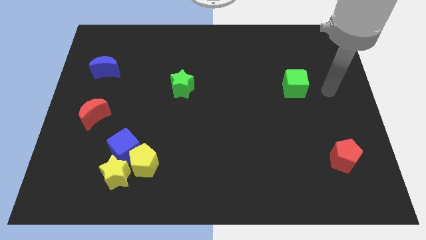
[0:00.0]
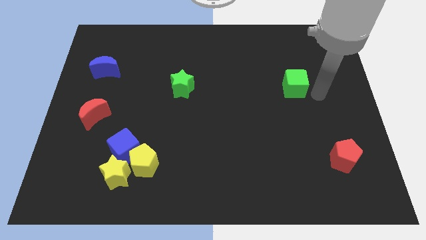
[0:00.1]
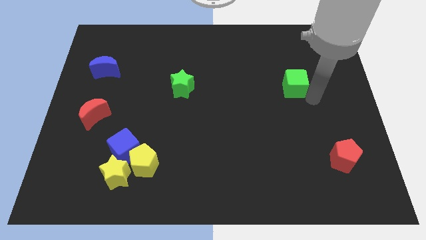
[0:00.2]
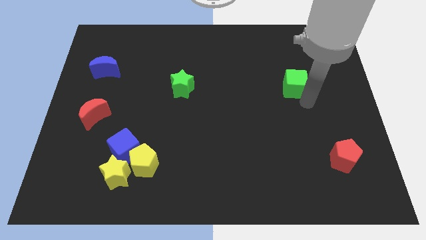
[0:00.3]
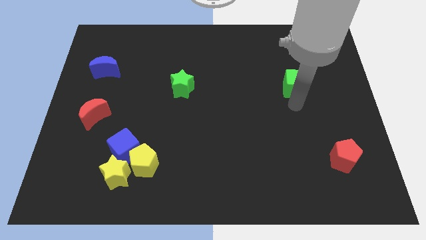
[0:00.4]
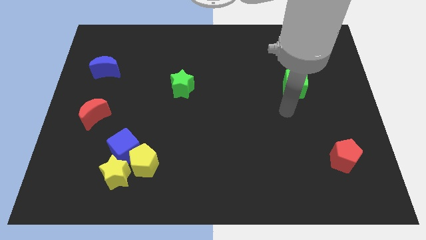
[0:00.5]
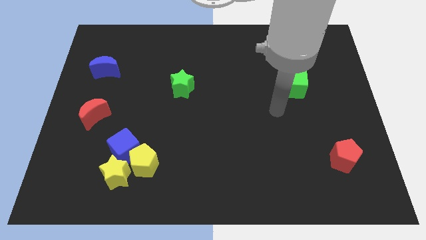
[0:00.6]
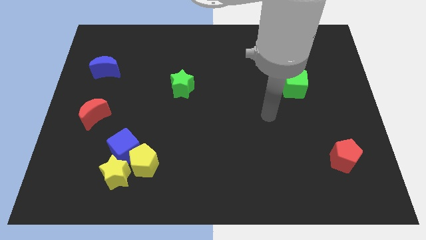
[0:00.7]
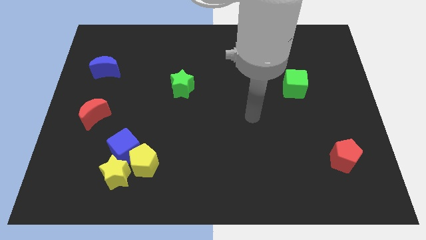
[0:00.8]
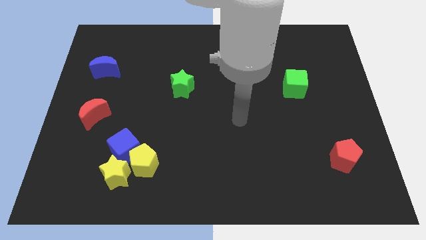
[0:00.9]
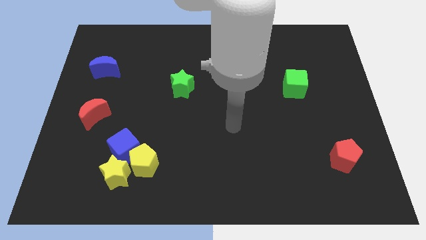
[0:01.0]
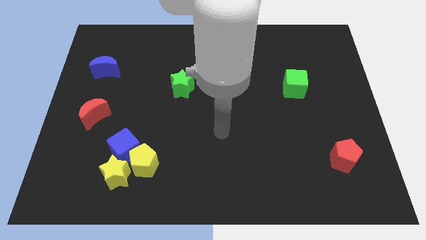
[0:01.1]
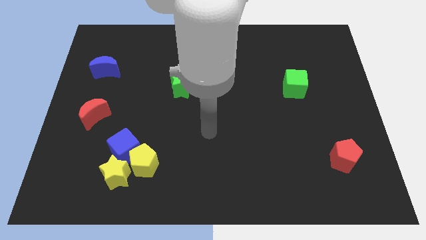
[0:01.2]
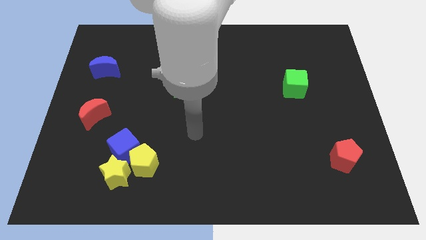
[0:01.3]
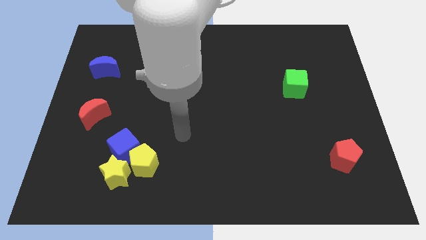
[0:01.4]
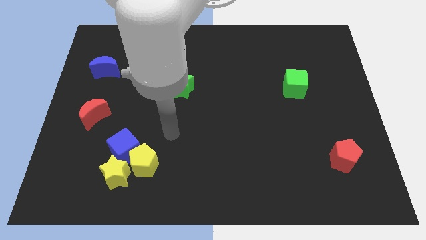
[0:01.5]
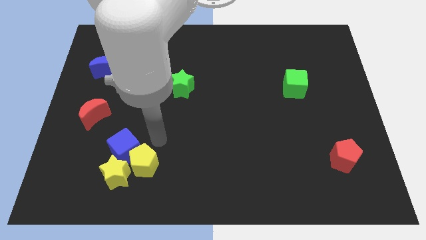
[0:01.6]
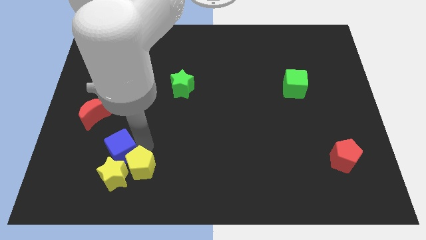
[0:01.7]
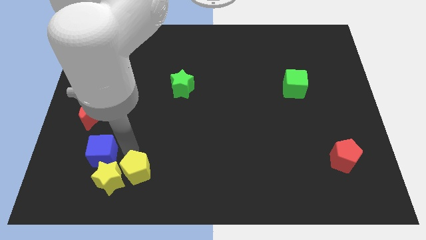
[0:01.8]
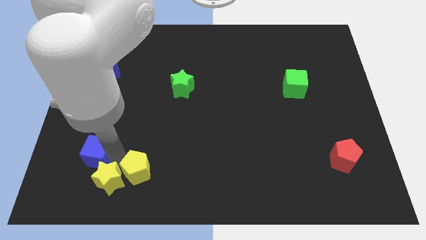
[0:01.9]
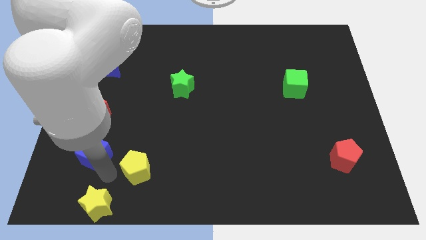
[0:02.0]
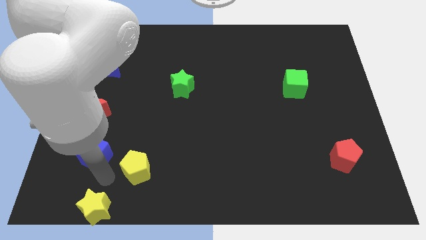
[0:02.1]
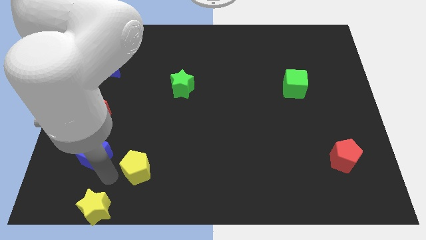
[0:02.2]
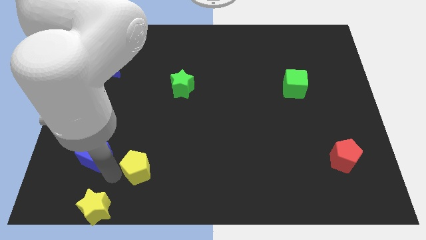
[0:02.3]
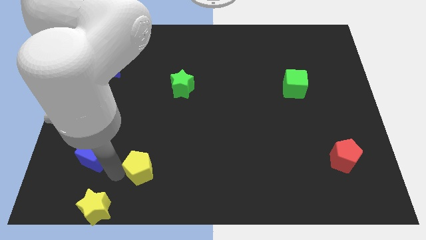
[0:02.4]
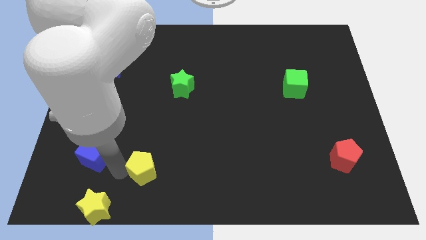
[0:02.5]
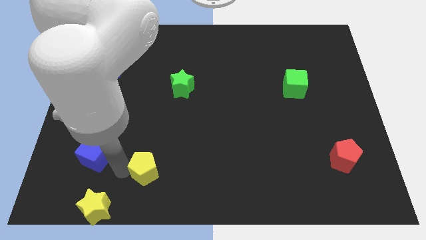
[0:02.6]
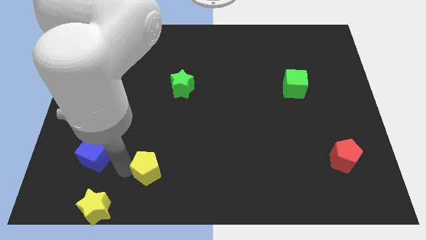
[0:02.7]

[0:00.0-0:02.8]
separate the yellow pentagon from the blue cube and yellow star

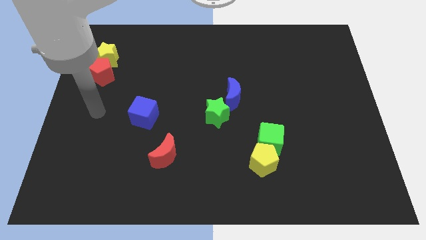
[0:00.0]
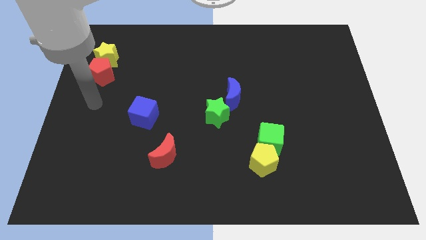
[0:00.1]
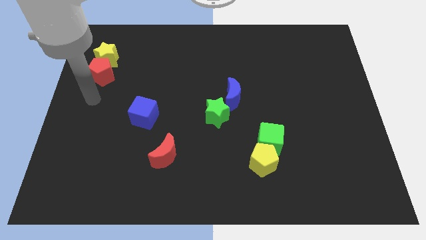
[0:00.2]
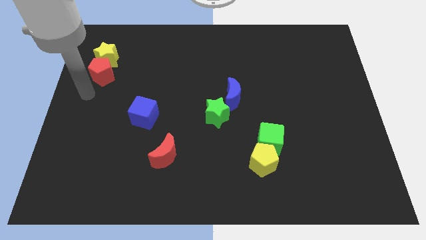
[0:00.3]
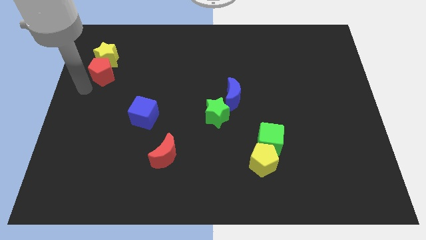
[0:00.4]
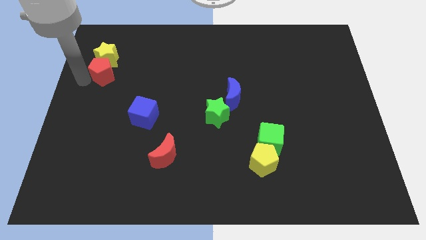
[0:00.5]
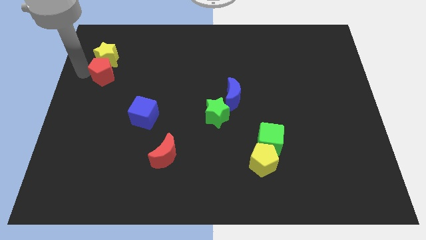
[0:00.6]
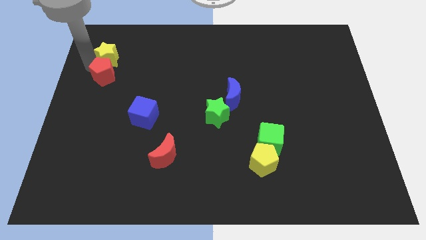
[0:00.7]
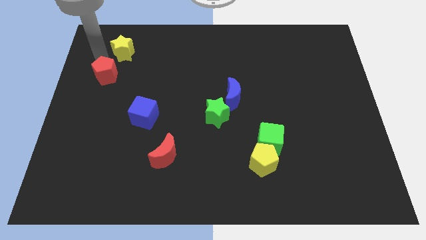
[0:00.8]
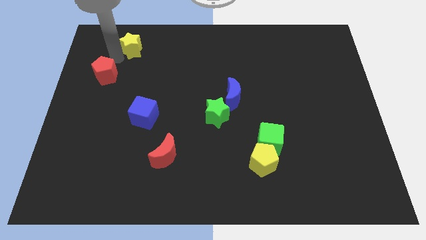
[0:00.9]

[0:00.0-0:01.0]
move the red pentagon away from the yellow star

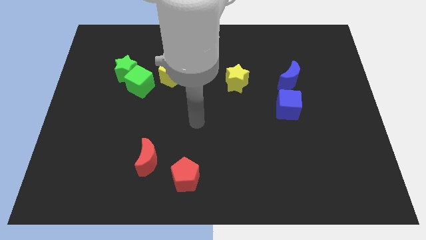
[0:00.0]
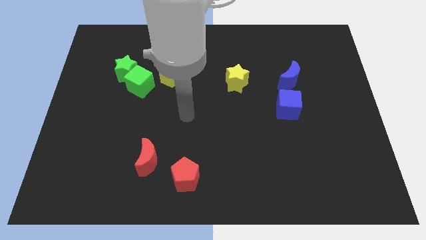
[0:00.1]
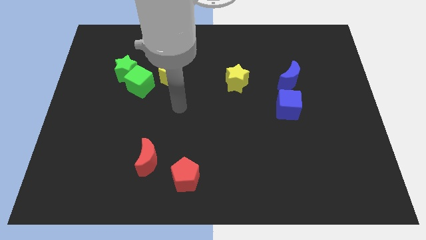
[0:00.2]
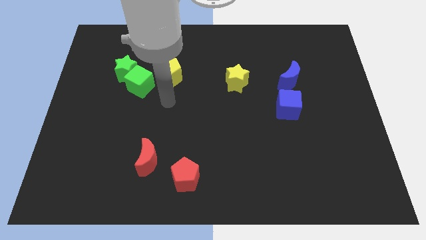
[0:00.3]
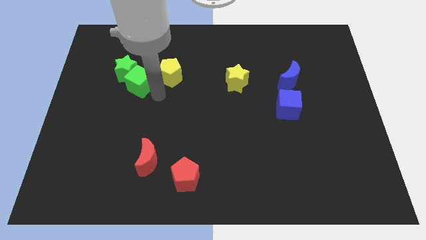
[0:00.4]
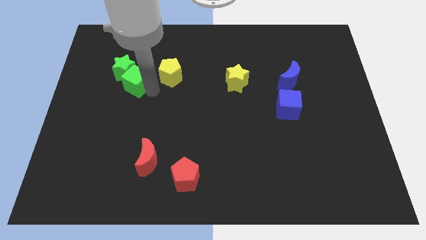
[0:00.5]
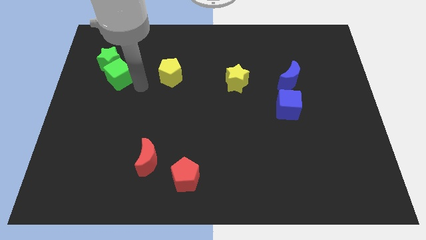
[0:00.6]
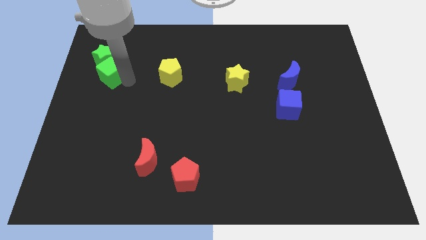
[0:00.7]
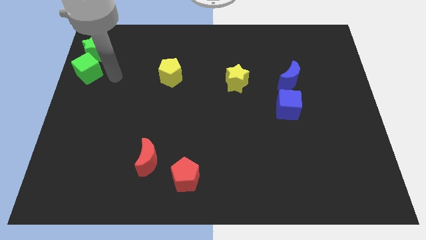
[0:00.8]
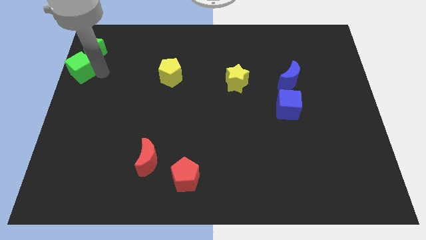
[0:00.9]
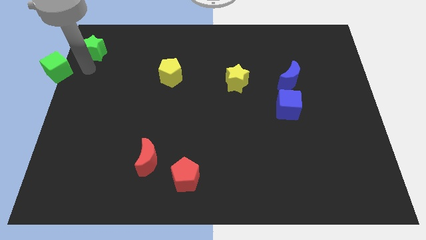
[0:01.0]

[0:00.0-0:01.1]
pull the green star apart from the green cube

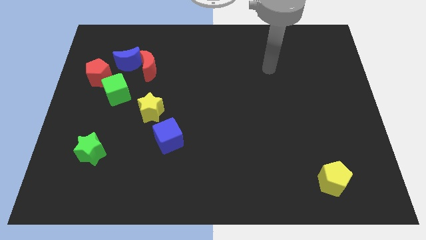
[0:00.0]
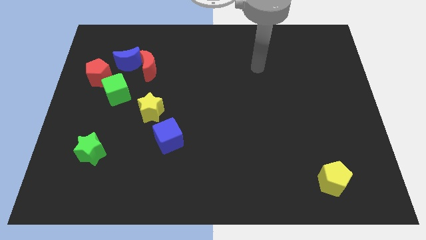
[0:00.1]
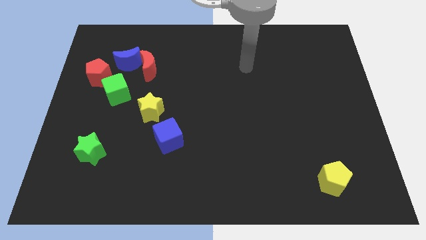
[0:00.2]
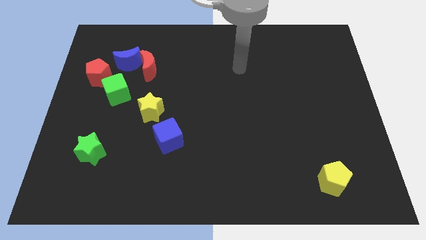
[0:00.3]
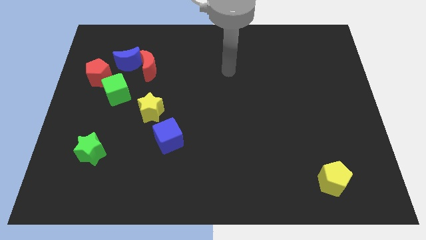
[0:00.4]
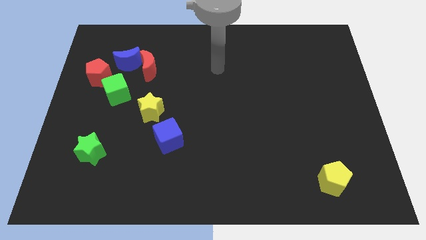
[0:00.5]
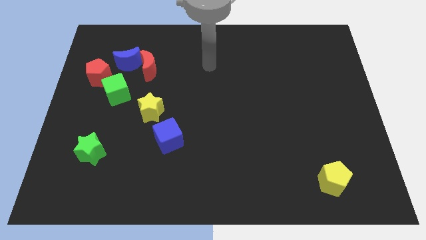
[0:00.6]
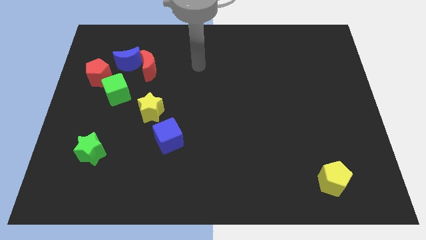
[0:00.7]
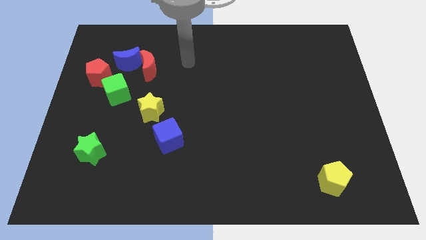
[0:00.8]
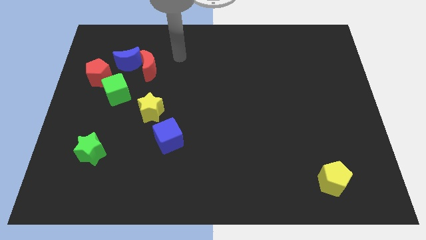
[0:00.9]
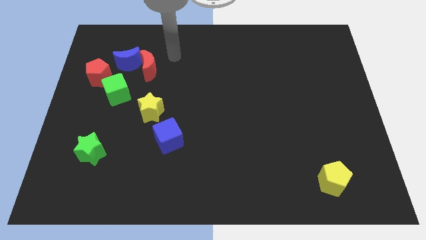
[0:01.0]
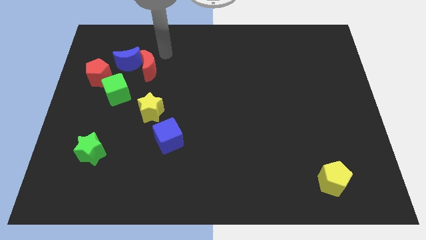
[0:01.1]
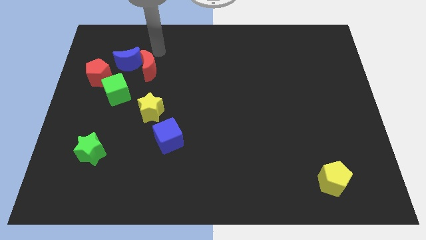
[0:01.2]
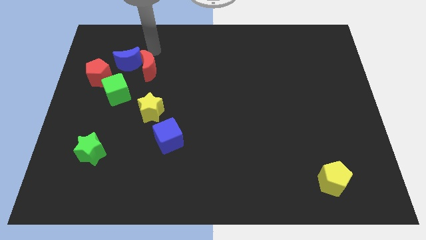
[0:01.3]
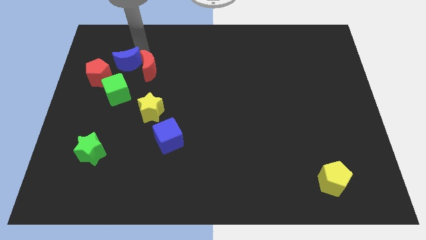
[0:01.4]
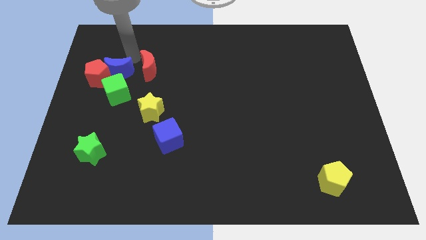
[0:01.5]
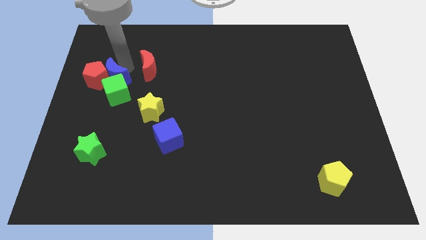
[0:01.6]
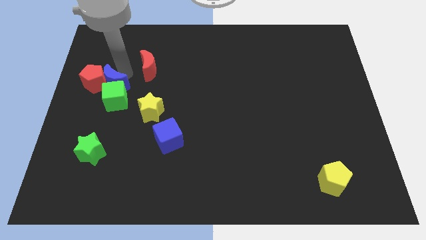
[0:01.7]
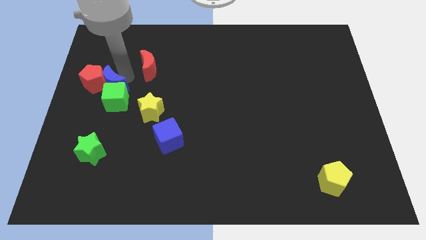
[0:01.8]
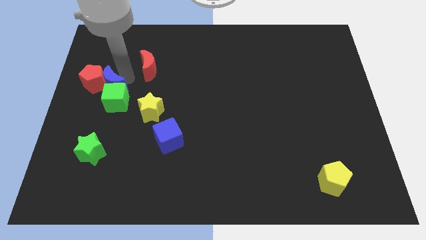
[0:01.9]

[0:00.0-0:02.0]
separate the red moon from the blue moon

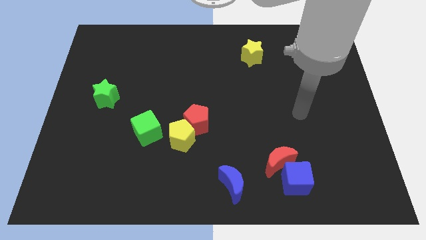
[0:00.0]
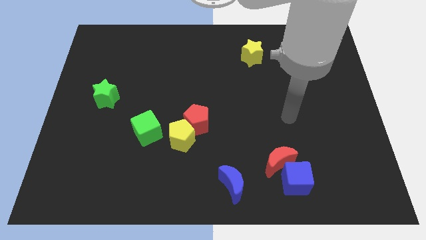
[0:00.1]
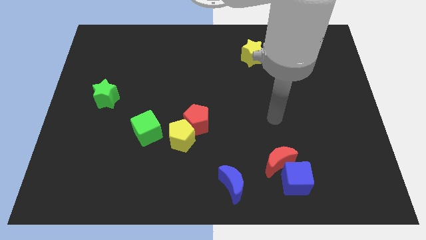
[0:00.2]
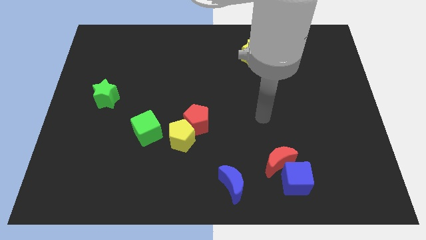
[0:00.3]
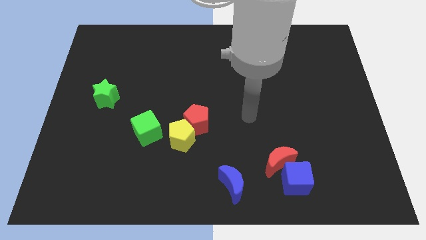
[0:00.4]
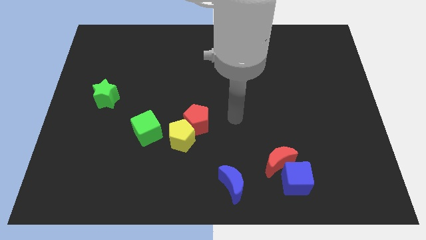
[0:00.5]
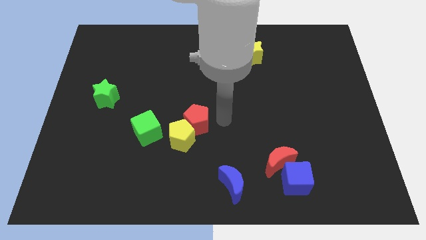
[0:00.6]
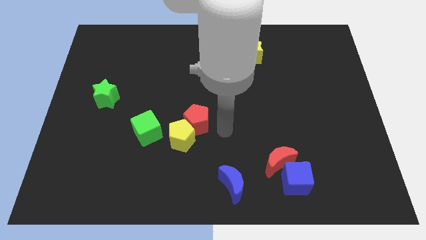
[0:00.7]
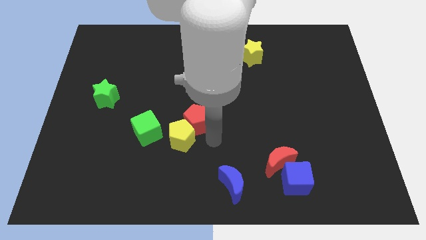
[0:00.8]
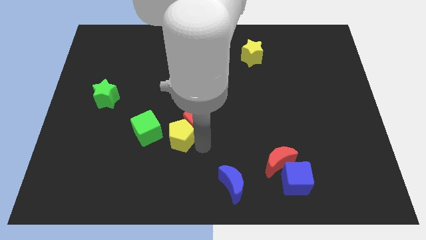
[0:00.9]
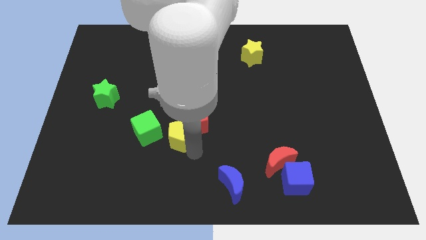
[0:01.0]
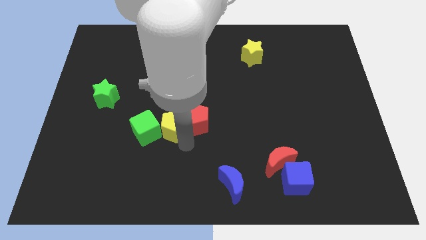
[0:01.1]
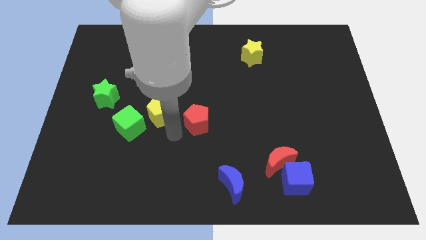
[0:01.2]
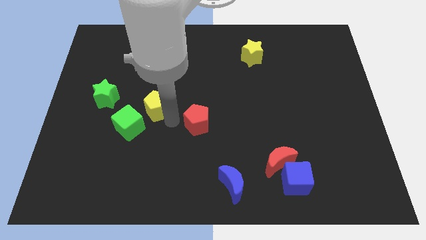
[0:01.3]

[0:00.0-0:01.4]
pull the red pentagon apart from the yellow pentagon

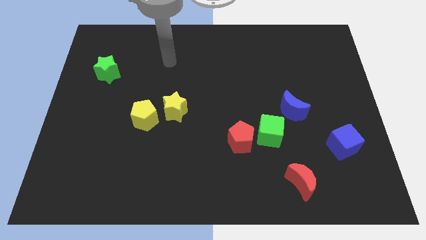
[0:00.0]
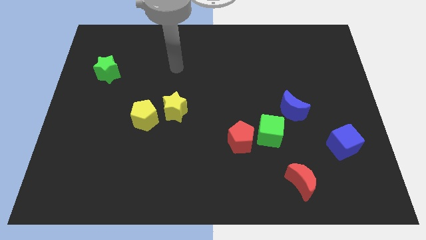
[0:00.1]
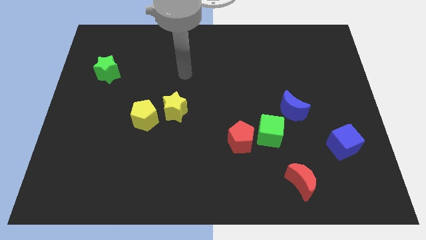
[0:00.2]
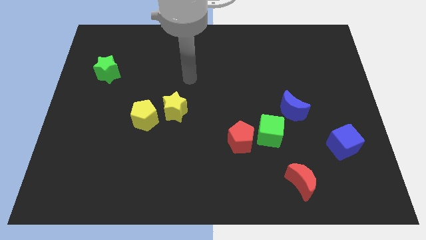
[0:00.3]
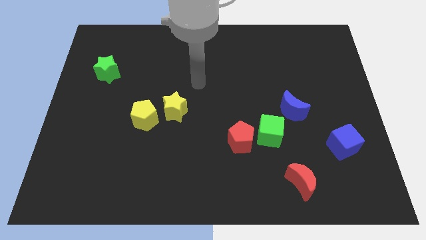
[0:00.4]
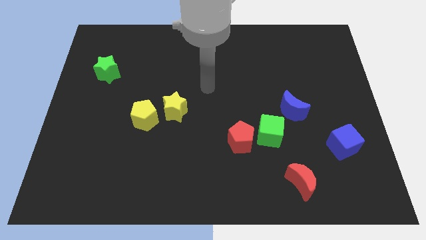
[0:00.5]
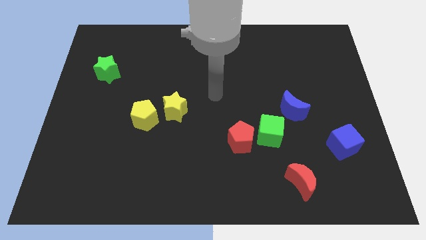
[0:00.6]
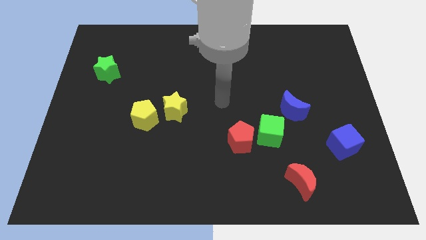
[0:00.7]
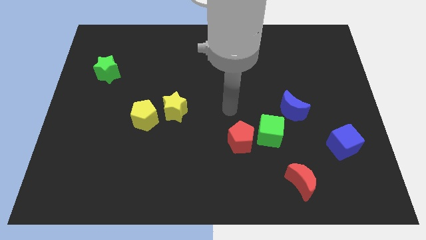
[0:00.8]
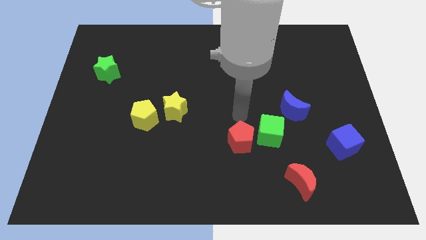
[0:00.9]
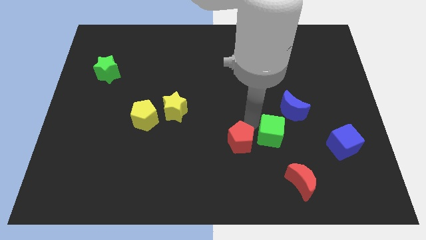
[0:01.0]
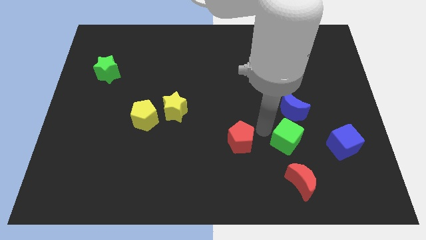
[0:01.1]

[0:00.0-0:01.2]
move the red pentagon away from the green cube
